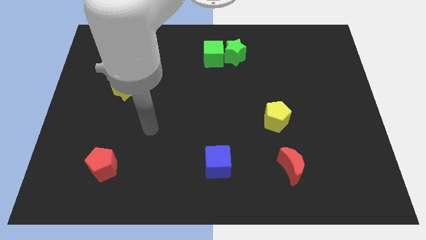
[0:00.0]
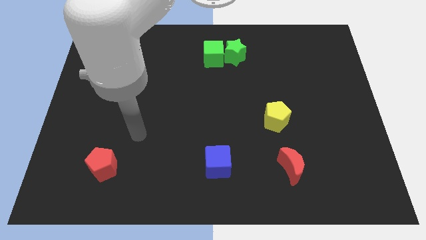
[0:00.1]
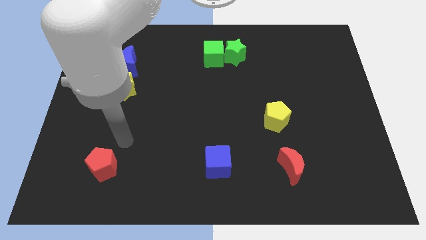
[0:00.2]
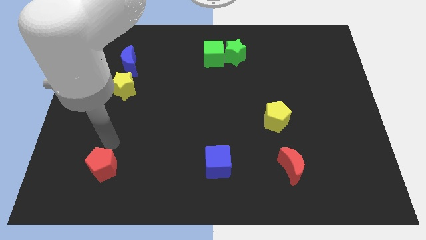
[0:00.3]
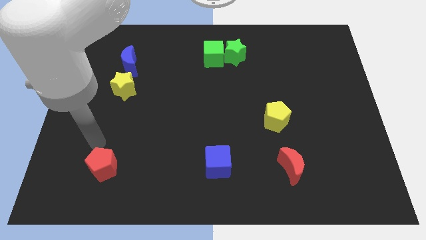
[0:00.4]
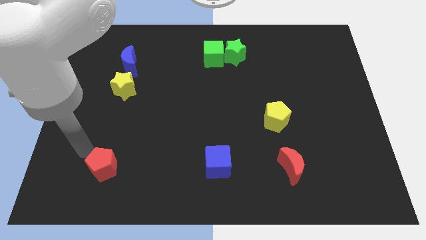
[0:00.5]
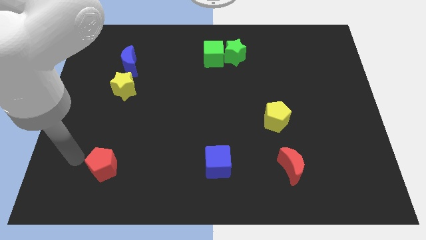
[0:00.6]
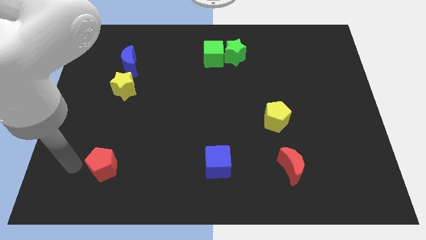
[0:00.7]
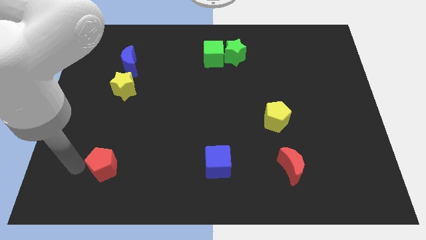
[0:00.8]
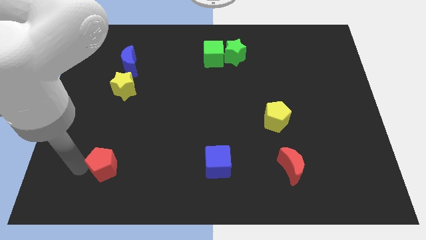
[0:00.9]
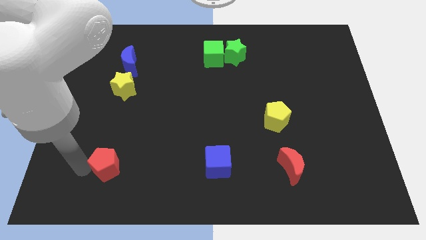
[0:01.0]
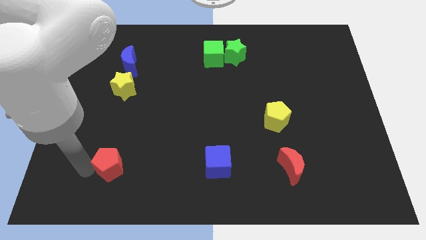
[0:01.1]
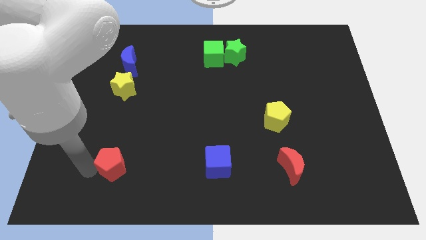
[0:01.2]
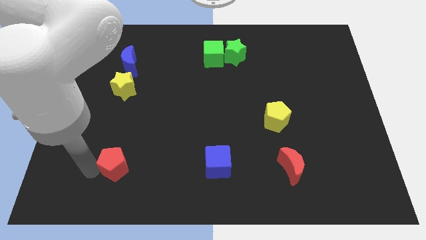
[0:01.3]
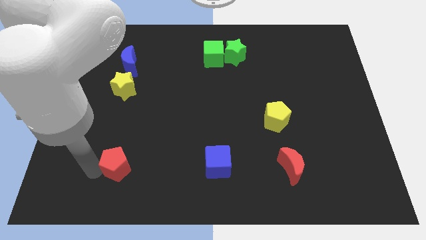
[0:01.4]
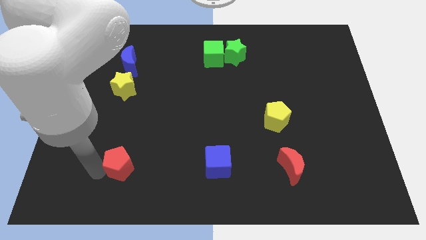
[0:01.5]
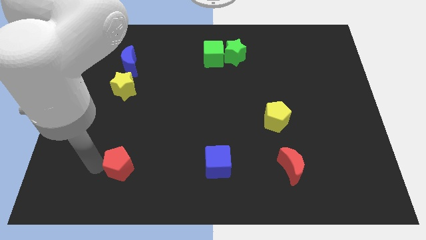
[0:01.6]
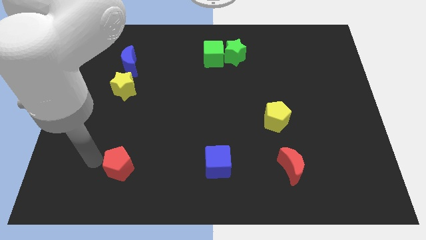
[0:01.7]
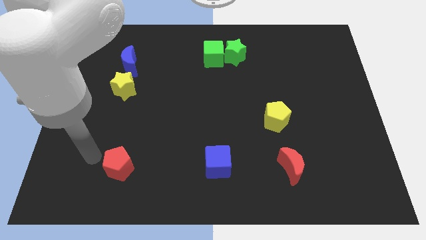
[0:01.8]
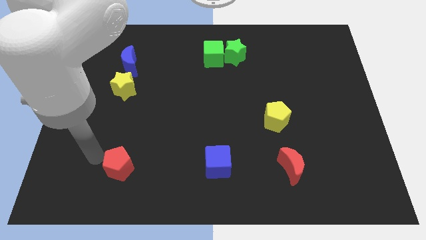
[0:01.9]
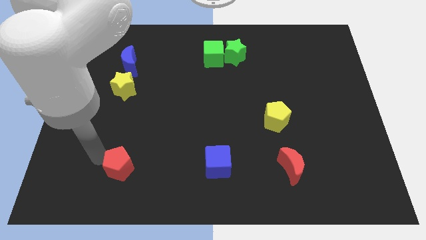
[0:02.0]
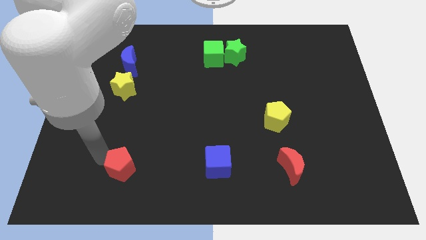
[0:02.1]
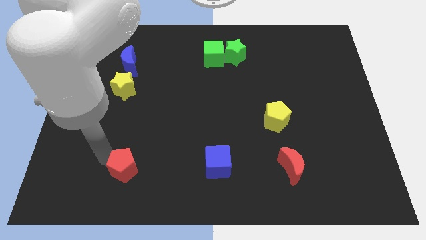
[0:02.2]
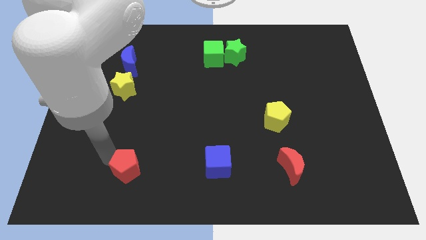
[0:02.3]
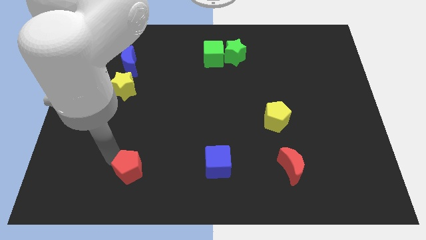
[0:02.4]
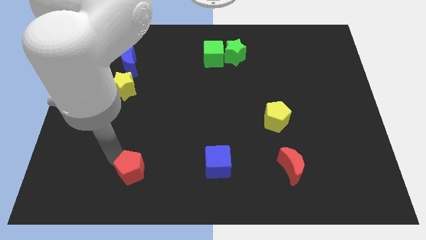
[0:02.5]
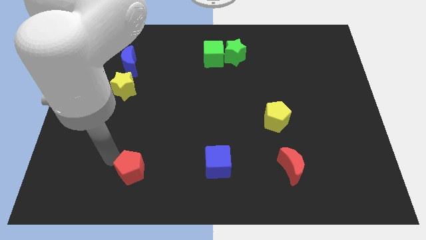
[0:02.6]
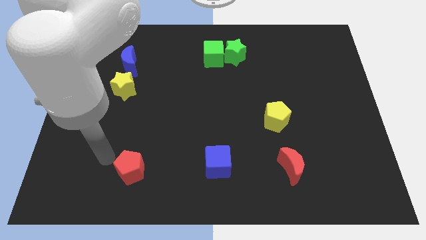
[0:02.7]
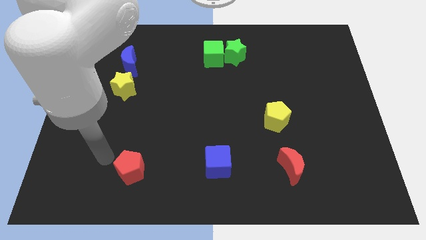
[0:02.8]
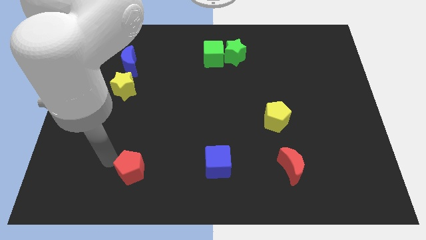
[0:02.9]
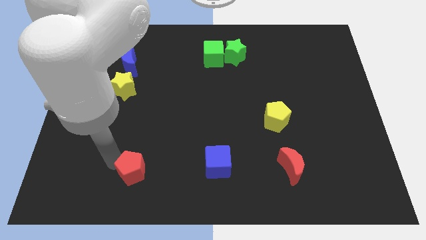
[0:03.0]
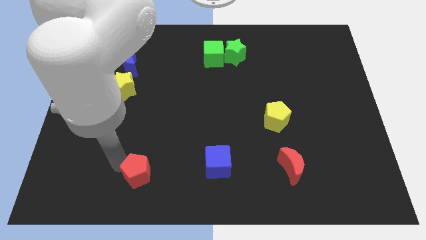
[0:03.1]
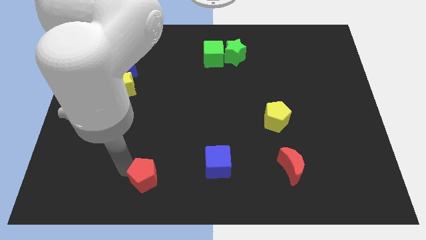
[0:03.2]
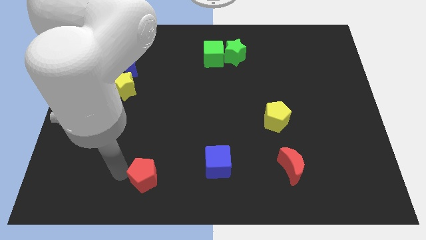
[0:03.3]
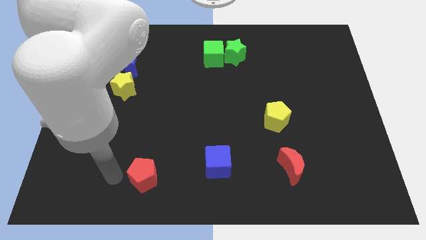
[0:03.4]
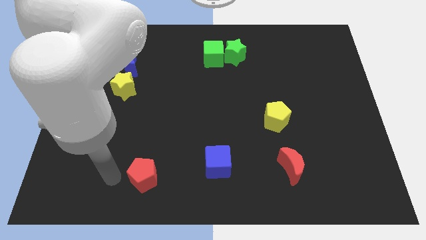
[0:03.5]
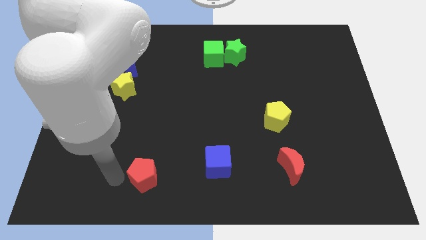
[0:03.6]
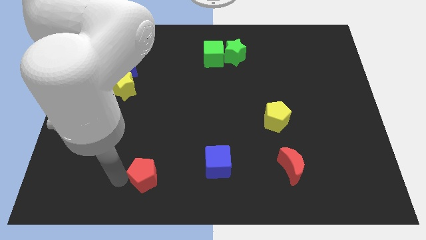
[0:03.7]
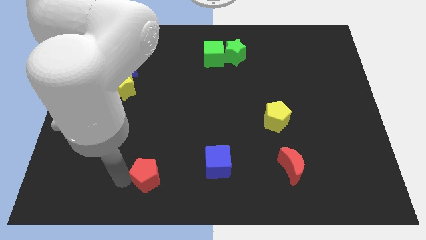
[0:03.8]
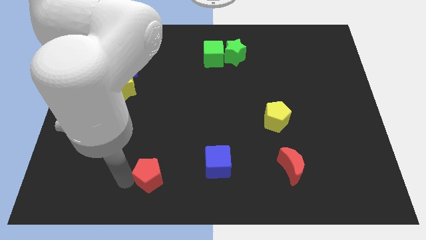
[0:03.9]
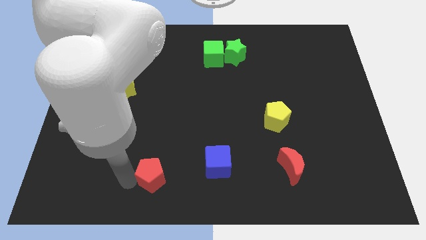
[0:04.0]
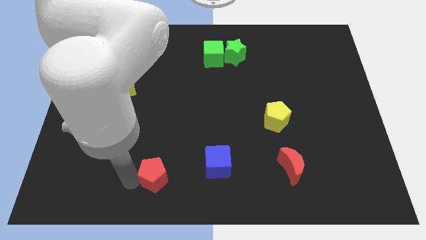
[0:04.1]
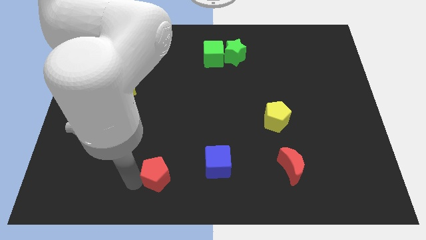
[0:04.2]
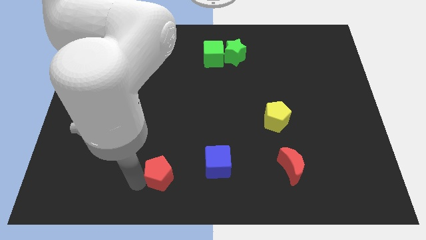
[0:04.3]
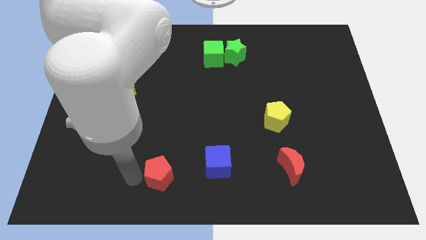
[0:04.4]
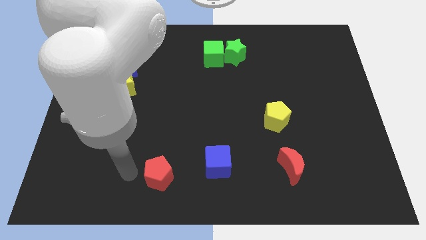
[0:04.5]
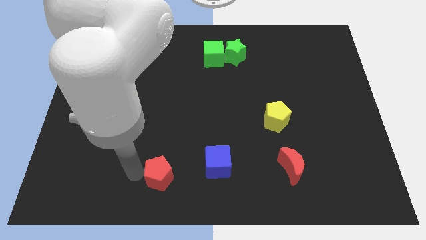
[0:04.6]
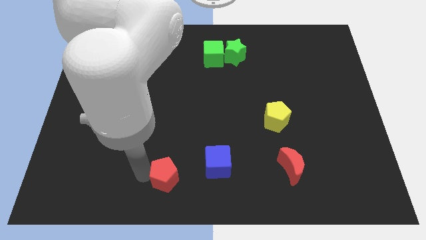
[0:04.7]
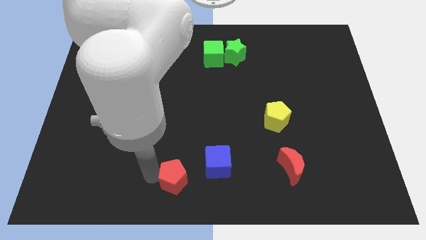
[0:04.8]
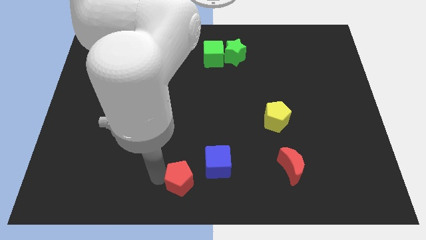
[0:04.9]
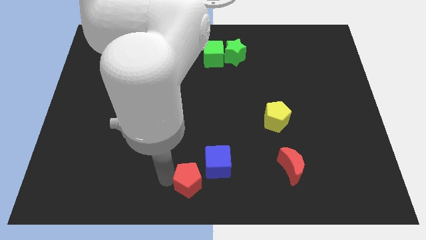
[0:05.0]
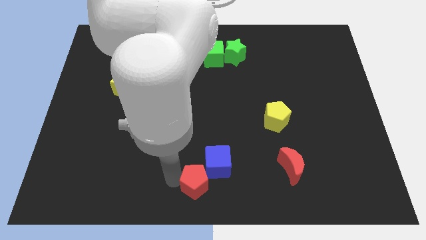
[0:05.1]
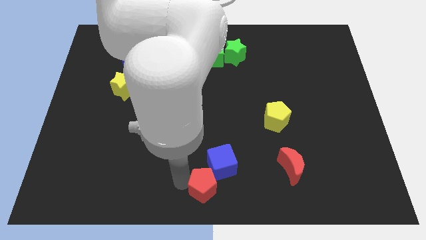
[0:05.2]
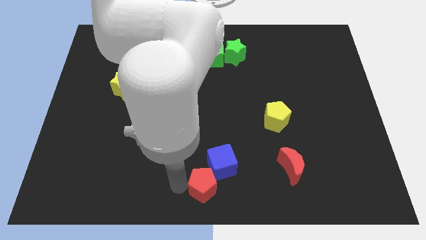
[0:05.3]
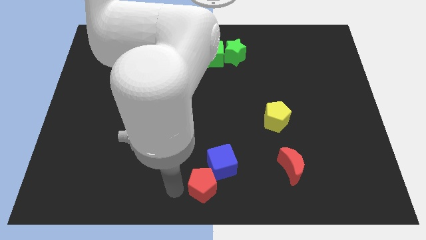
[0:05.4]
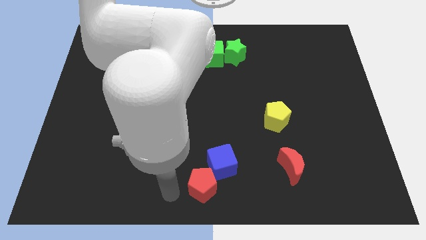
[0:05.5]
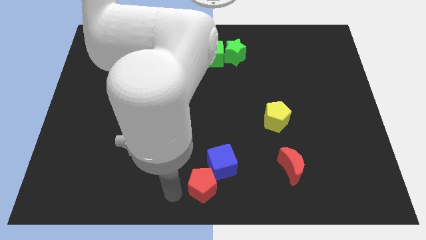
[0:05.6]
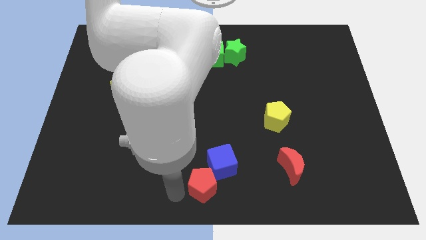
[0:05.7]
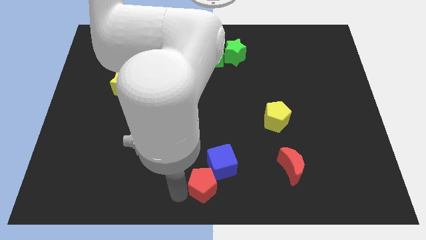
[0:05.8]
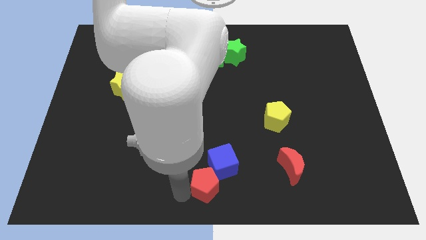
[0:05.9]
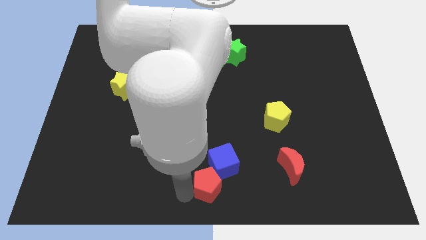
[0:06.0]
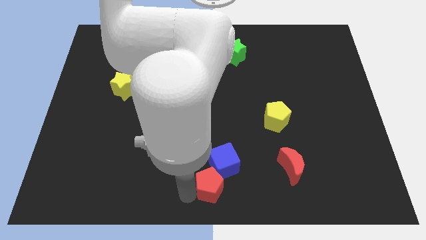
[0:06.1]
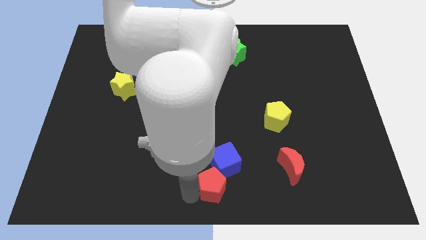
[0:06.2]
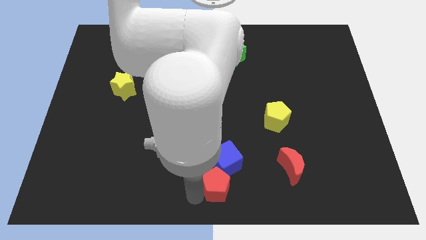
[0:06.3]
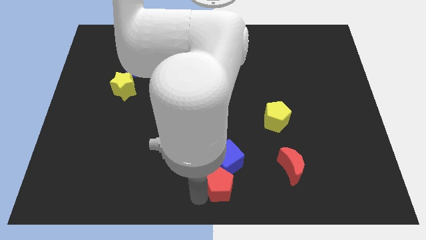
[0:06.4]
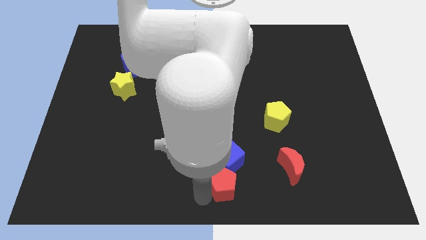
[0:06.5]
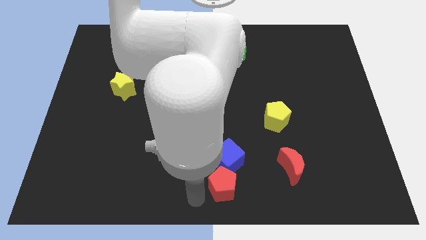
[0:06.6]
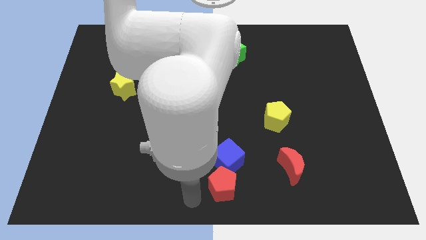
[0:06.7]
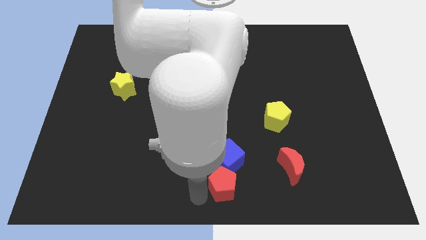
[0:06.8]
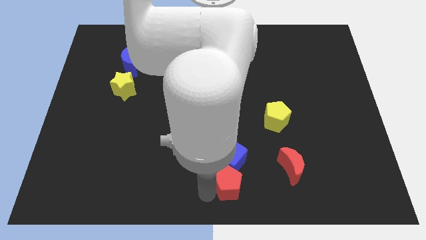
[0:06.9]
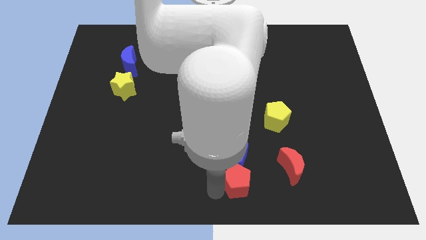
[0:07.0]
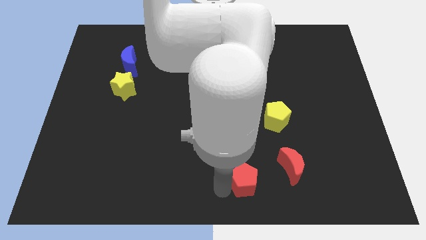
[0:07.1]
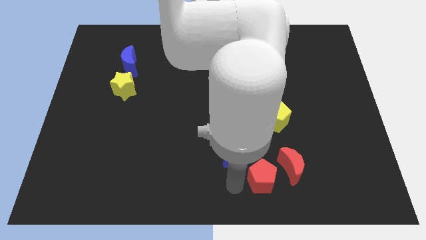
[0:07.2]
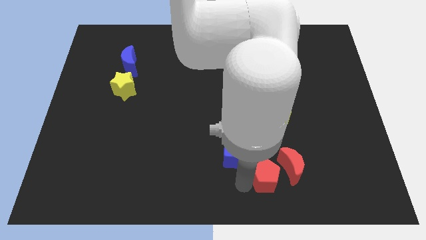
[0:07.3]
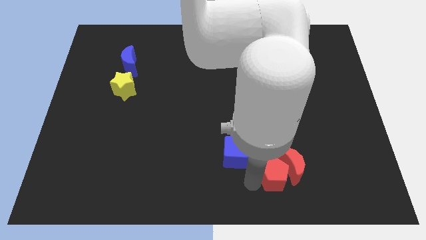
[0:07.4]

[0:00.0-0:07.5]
put the red pentagon close to the red moon
